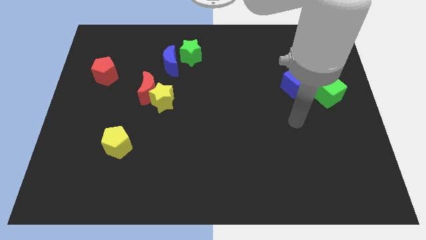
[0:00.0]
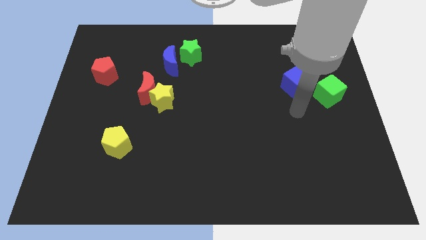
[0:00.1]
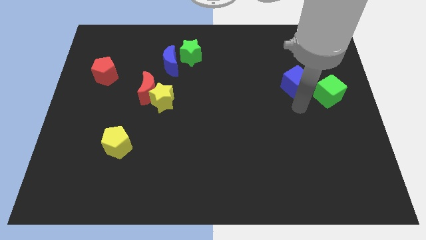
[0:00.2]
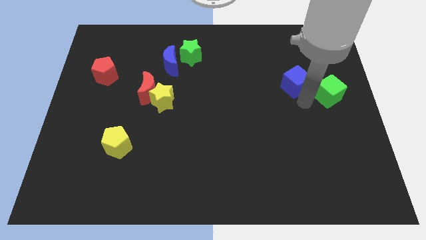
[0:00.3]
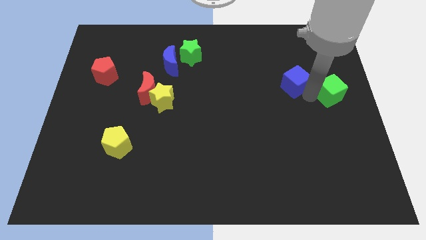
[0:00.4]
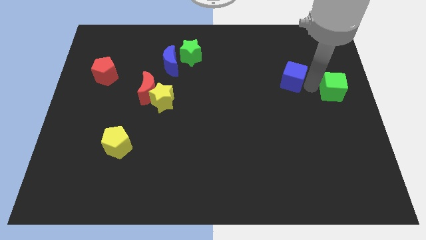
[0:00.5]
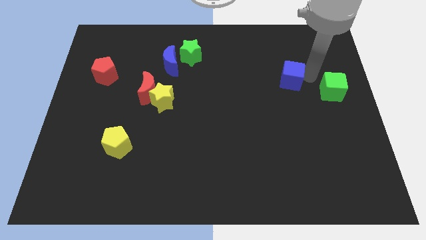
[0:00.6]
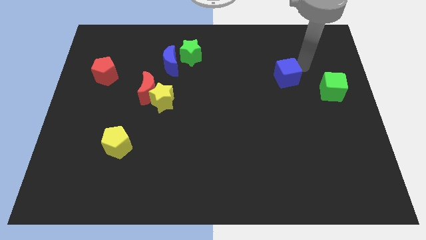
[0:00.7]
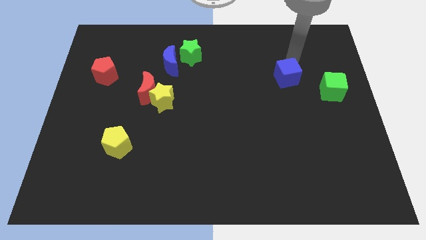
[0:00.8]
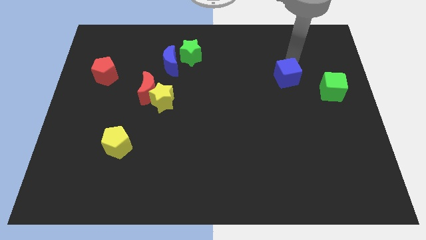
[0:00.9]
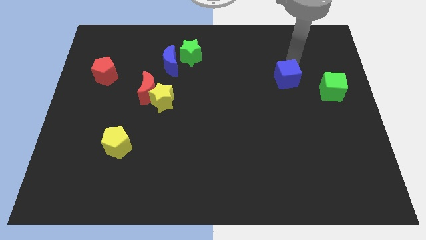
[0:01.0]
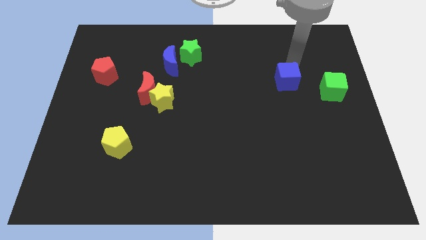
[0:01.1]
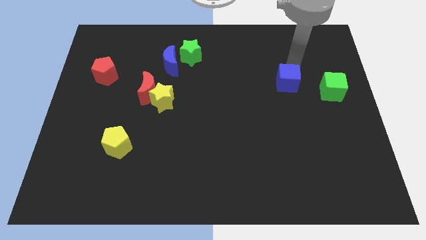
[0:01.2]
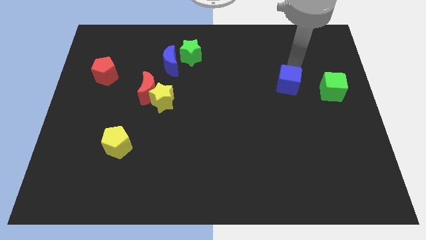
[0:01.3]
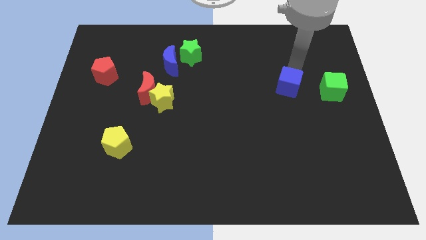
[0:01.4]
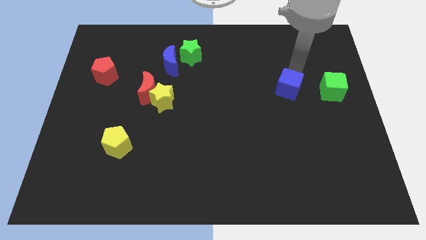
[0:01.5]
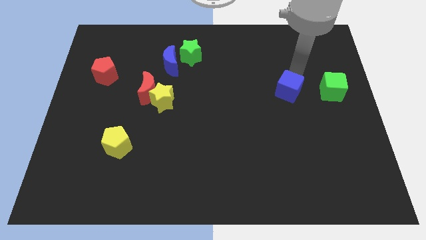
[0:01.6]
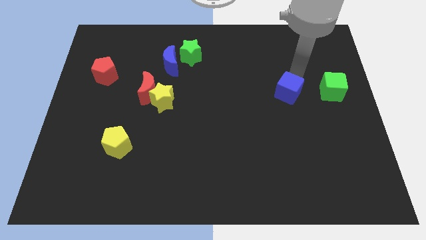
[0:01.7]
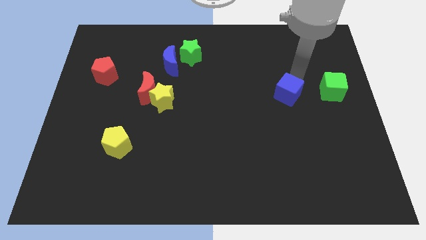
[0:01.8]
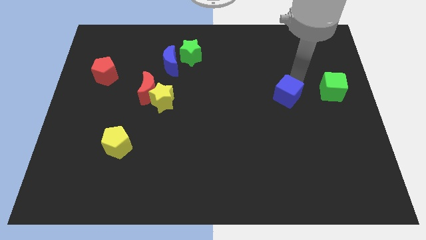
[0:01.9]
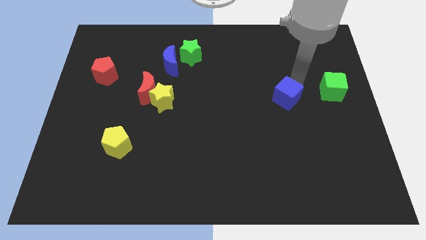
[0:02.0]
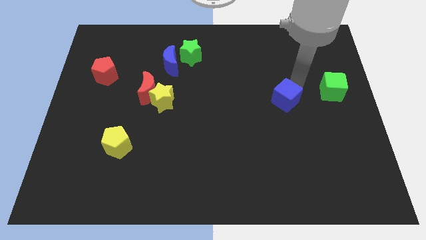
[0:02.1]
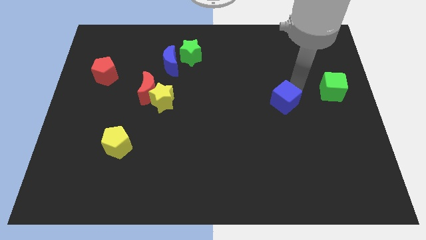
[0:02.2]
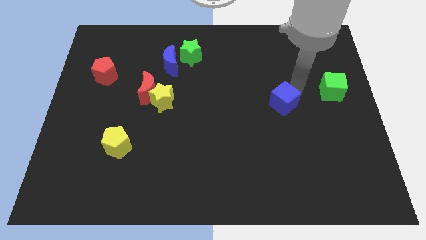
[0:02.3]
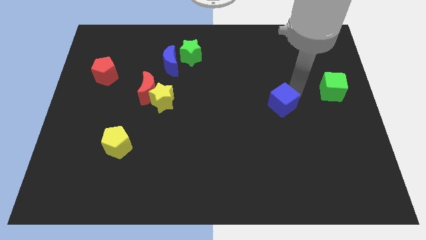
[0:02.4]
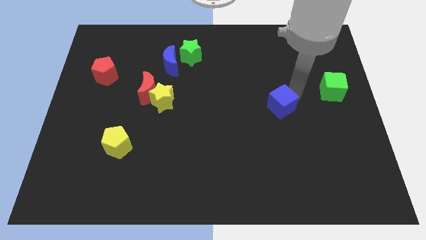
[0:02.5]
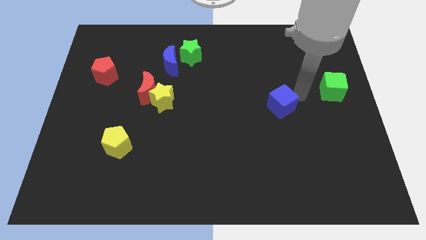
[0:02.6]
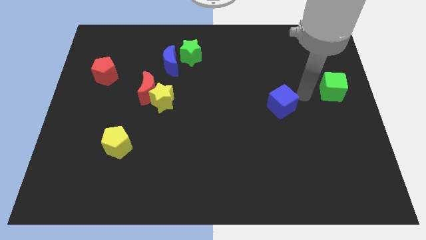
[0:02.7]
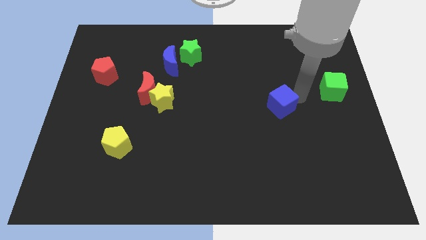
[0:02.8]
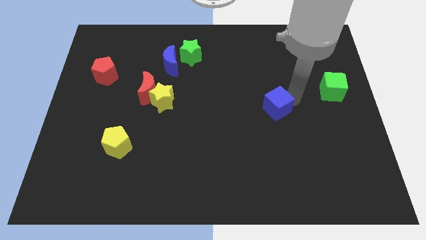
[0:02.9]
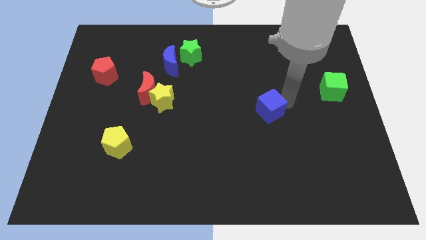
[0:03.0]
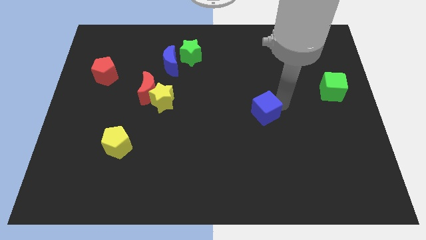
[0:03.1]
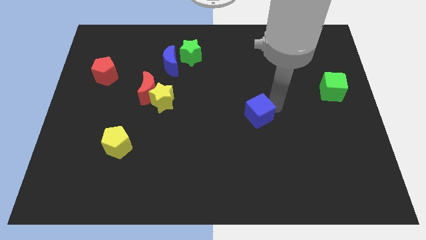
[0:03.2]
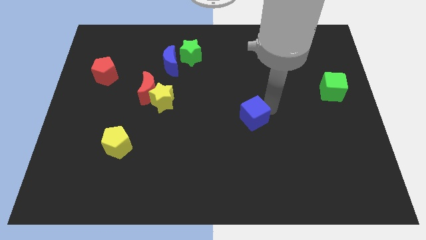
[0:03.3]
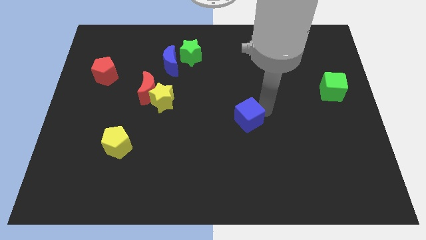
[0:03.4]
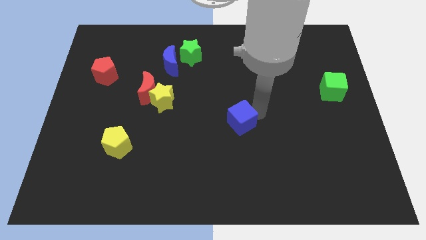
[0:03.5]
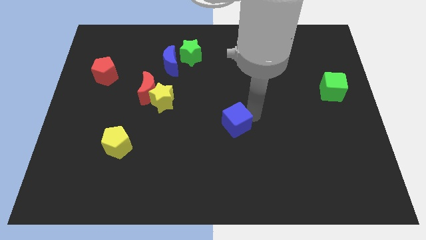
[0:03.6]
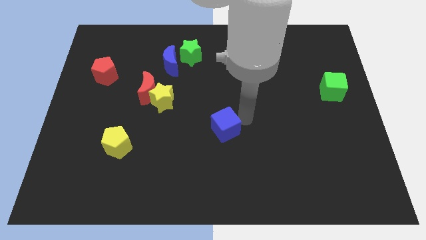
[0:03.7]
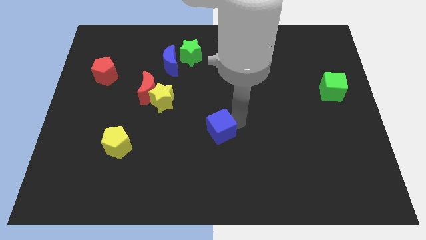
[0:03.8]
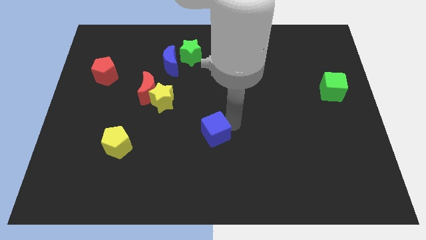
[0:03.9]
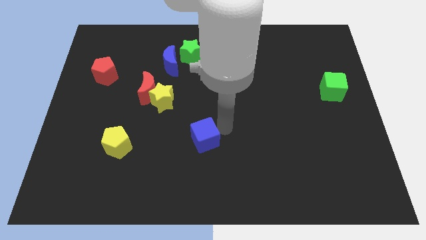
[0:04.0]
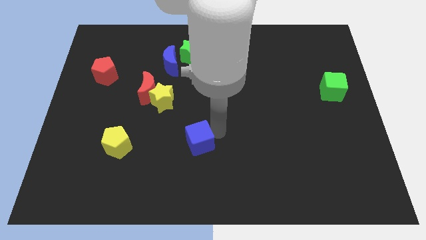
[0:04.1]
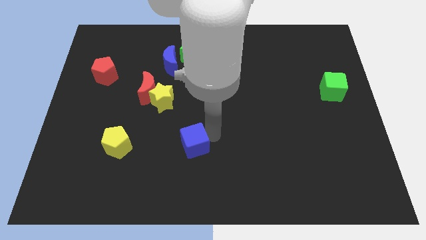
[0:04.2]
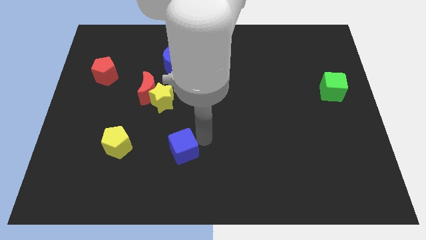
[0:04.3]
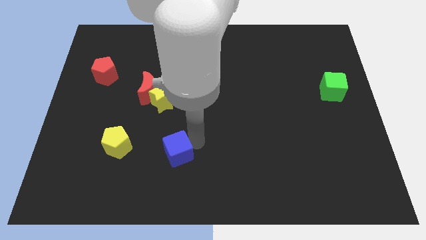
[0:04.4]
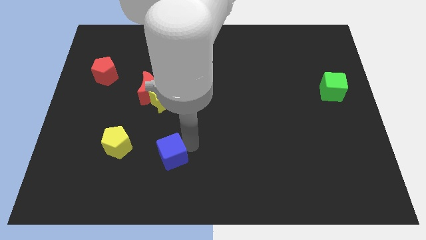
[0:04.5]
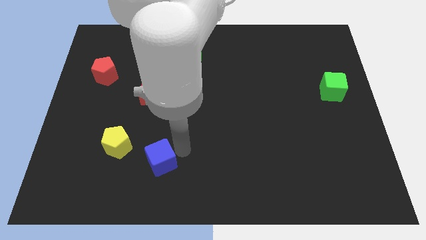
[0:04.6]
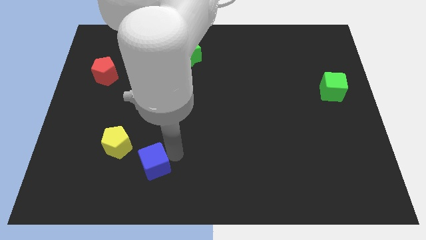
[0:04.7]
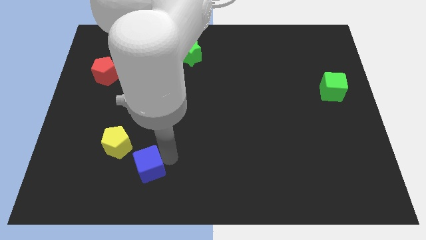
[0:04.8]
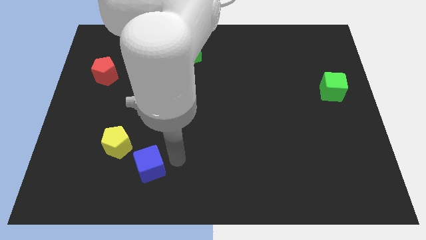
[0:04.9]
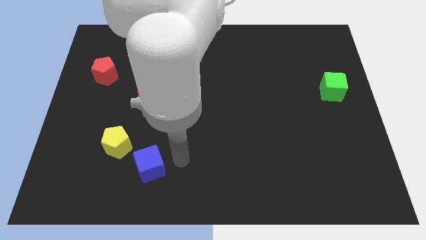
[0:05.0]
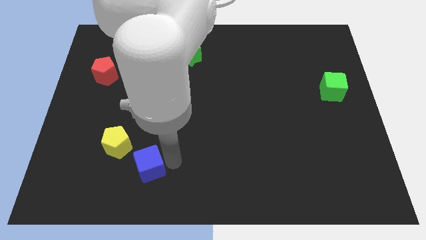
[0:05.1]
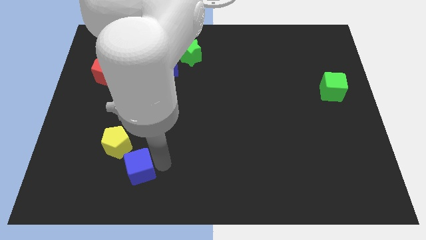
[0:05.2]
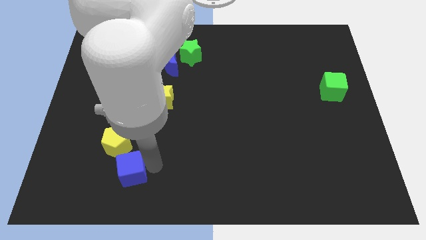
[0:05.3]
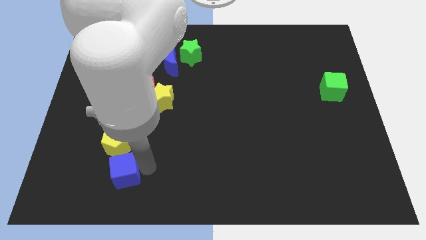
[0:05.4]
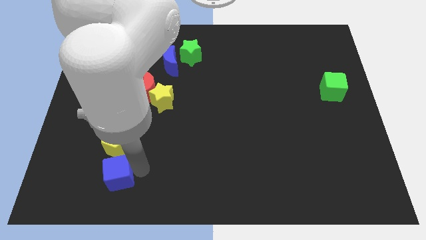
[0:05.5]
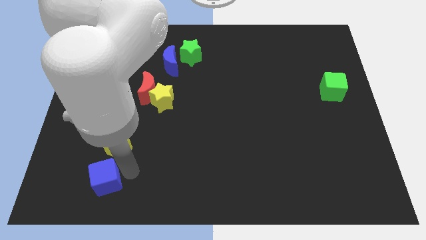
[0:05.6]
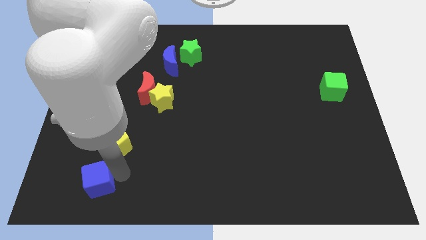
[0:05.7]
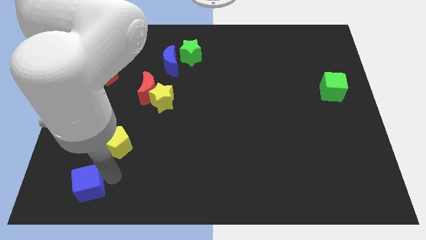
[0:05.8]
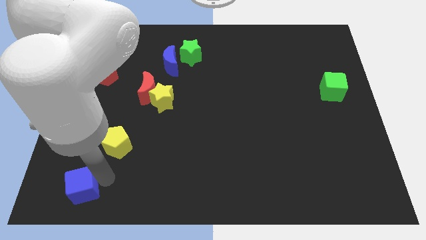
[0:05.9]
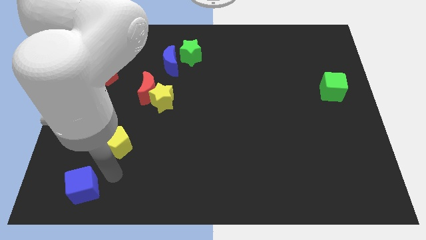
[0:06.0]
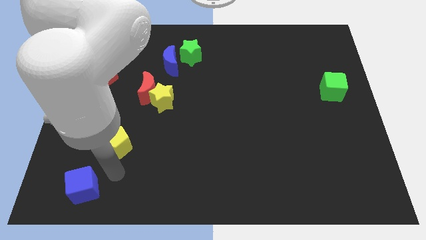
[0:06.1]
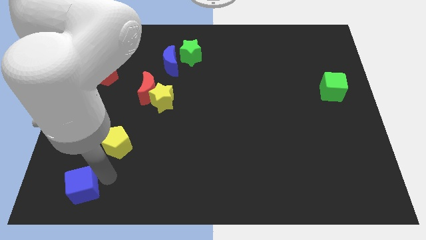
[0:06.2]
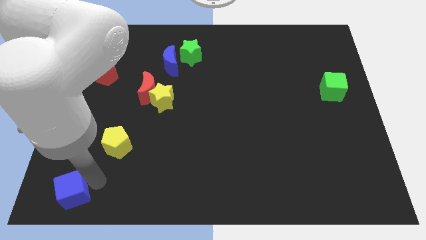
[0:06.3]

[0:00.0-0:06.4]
push the blue cube to the bottom left
